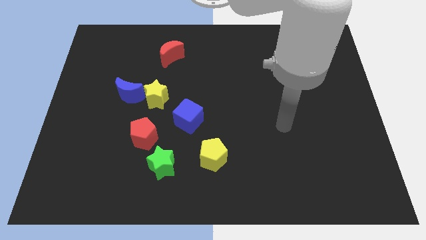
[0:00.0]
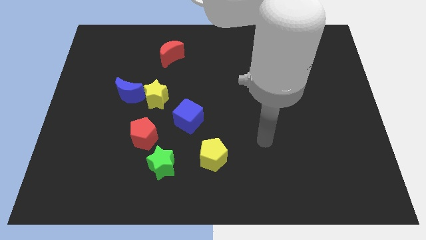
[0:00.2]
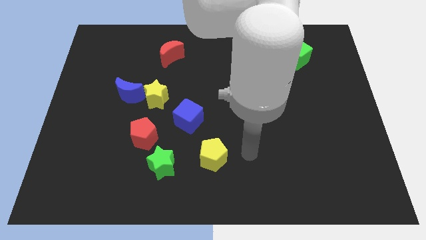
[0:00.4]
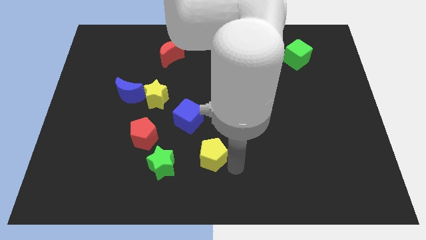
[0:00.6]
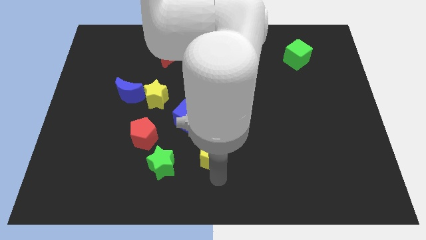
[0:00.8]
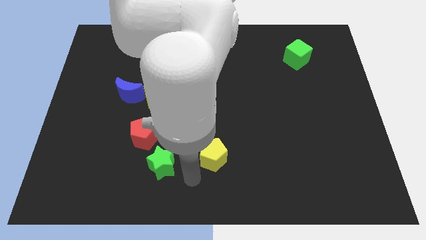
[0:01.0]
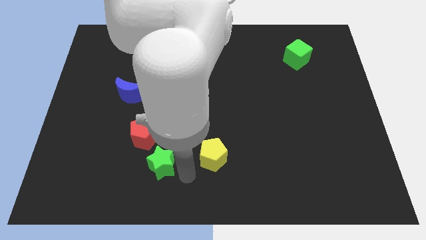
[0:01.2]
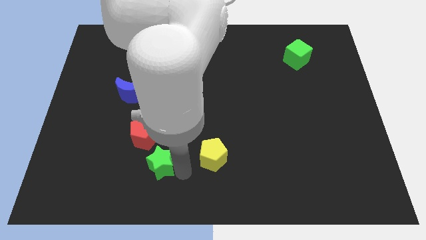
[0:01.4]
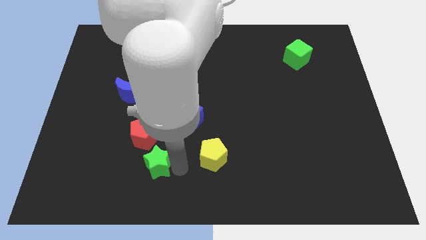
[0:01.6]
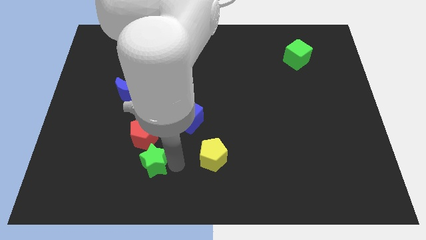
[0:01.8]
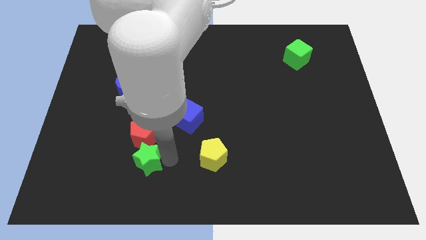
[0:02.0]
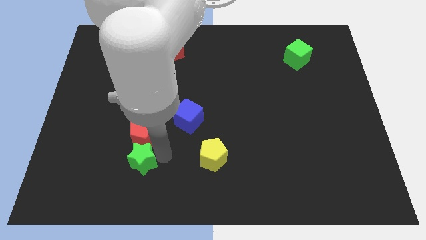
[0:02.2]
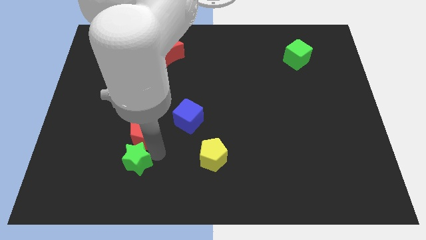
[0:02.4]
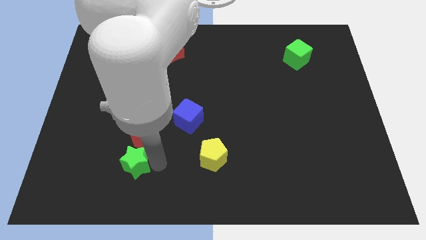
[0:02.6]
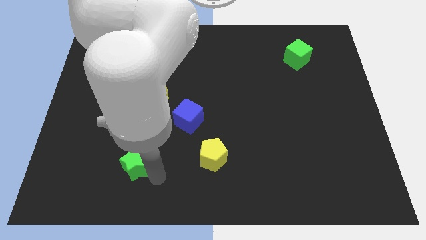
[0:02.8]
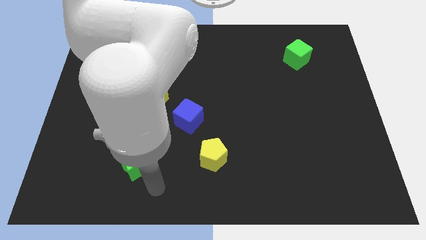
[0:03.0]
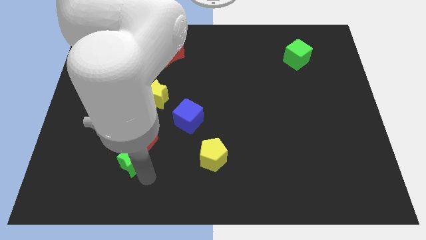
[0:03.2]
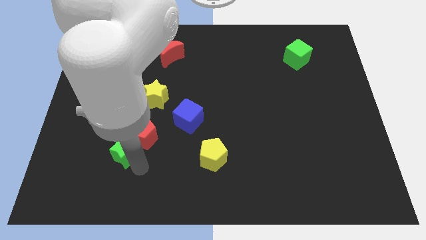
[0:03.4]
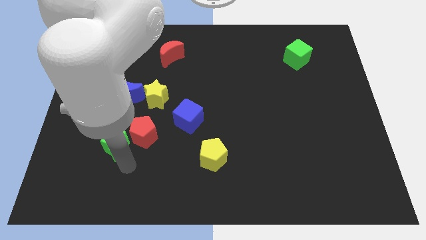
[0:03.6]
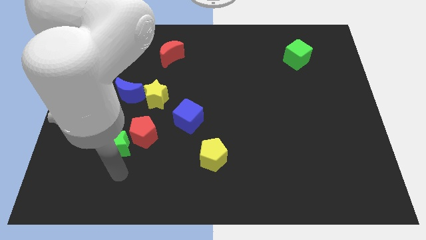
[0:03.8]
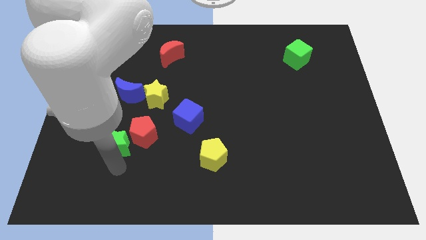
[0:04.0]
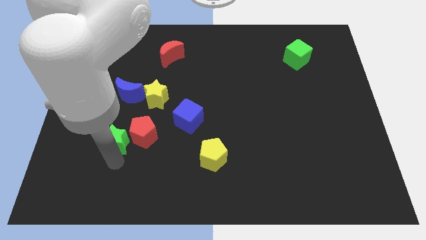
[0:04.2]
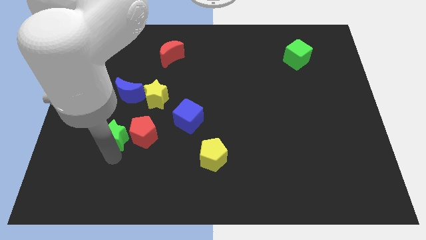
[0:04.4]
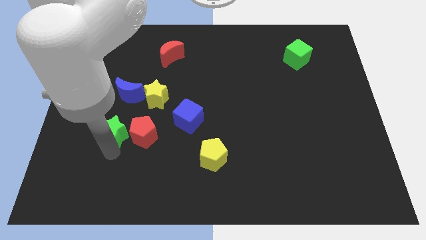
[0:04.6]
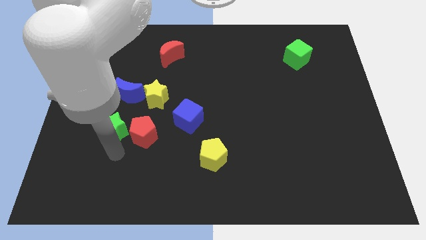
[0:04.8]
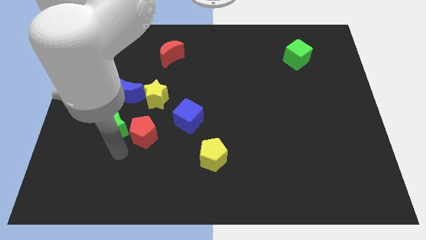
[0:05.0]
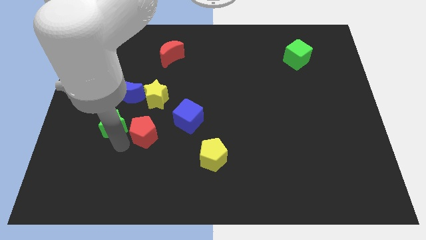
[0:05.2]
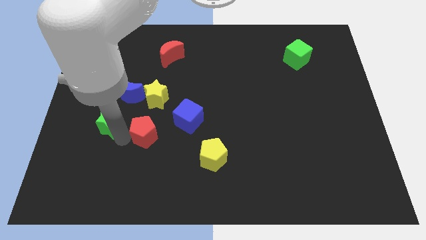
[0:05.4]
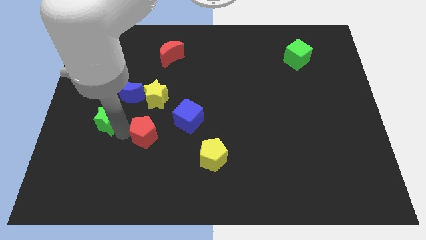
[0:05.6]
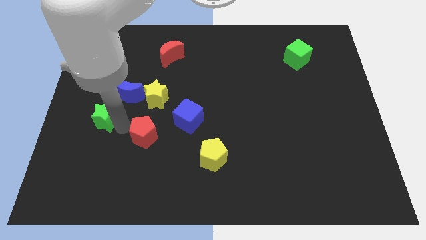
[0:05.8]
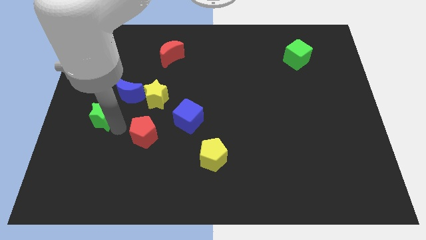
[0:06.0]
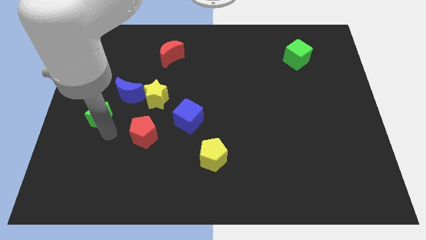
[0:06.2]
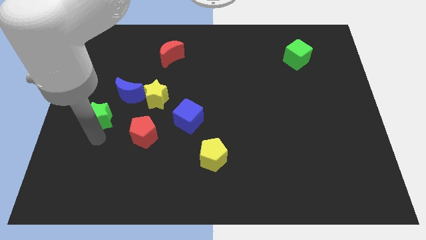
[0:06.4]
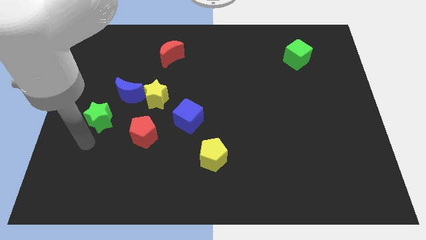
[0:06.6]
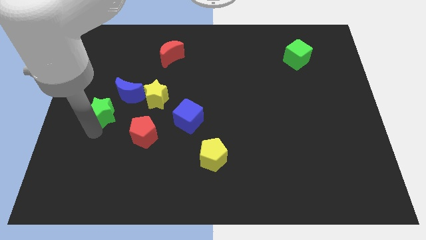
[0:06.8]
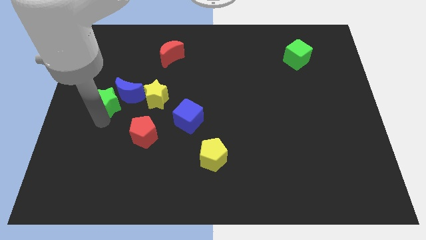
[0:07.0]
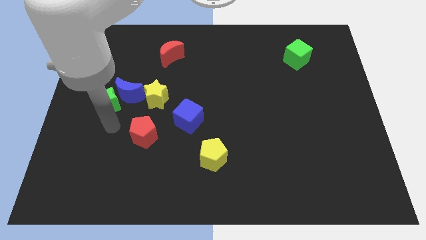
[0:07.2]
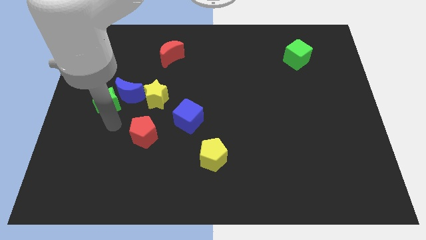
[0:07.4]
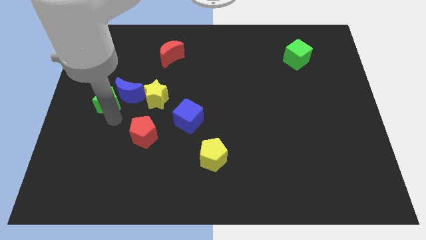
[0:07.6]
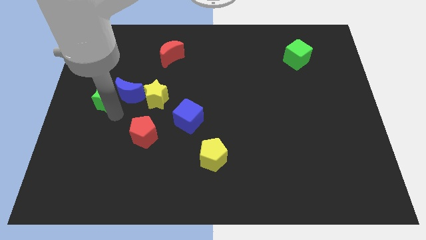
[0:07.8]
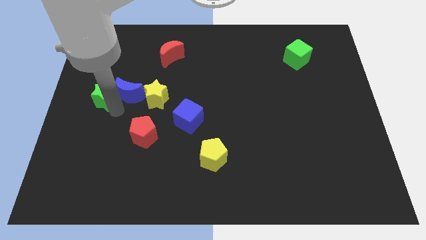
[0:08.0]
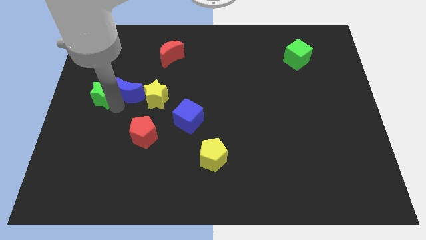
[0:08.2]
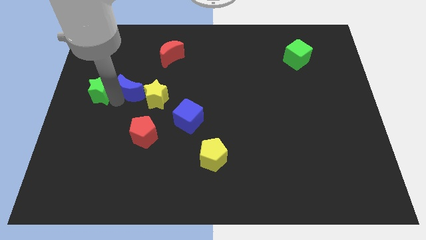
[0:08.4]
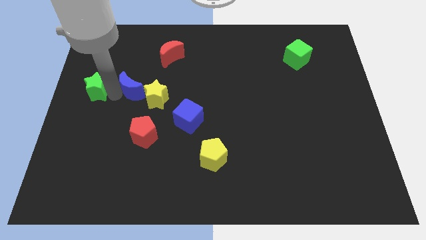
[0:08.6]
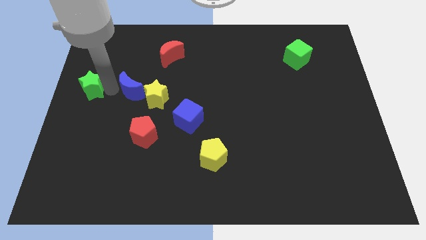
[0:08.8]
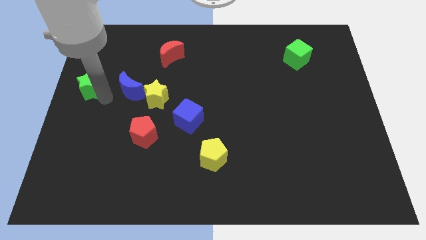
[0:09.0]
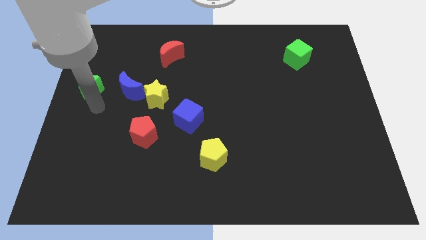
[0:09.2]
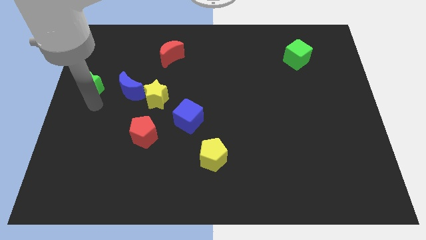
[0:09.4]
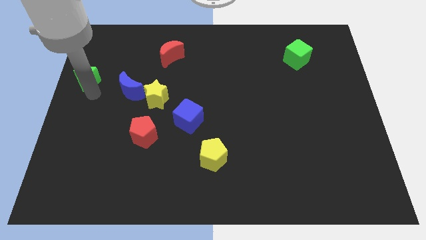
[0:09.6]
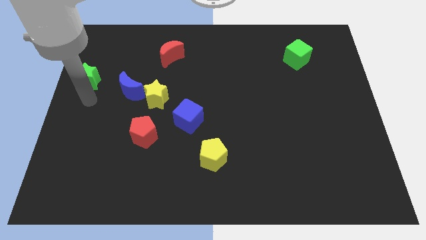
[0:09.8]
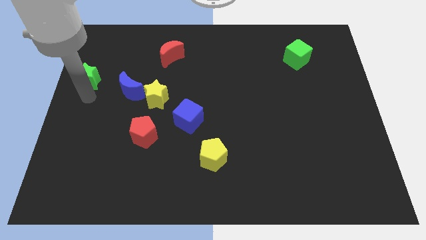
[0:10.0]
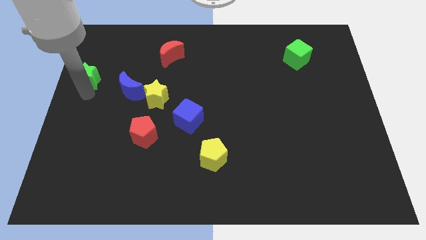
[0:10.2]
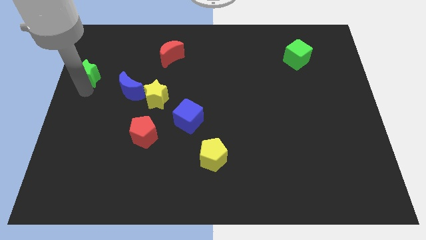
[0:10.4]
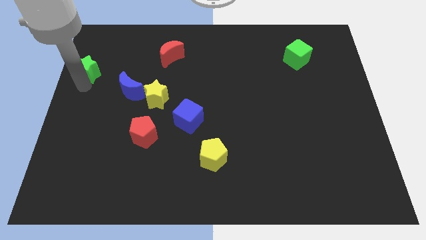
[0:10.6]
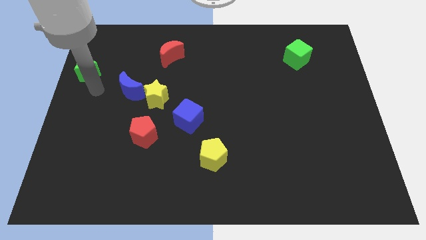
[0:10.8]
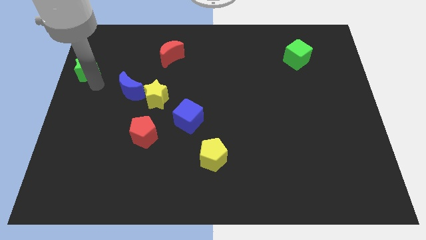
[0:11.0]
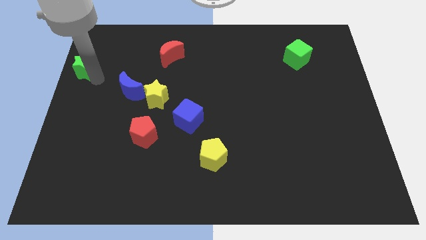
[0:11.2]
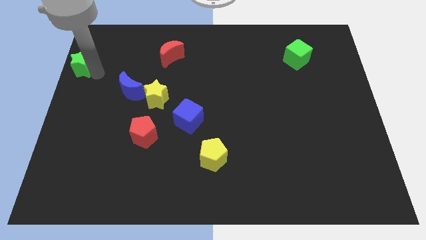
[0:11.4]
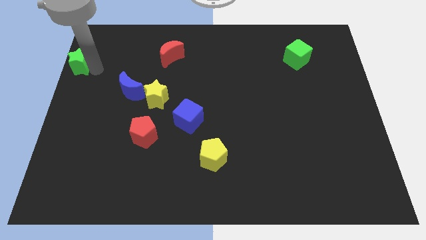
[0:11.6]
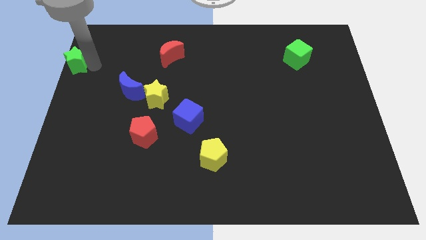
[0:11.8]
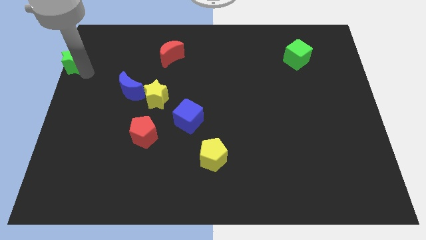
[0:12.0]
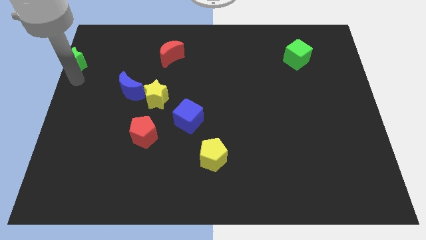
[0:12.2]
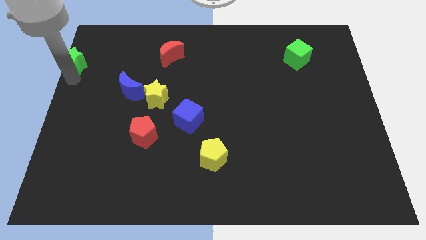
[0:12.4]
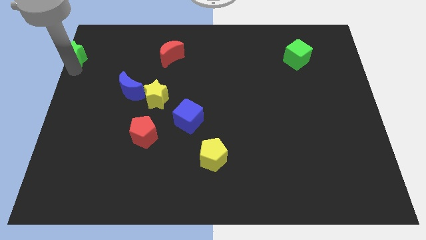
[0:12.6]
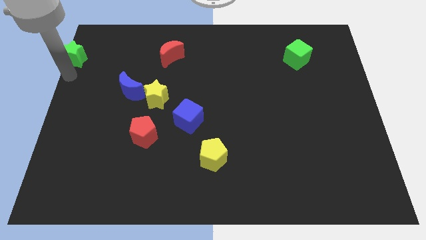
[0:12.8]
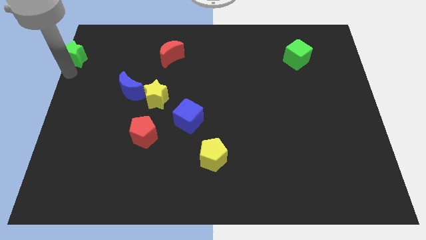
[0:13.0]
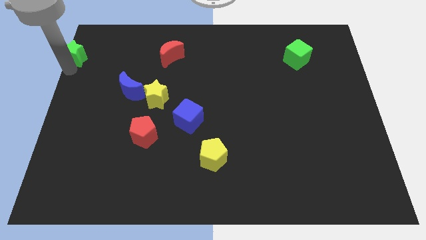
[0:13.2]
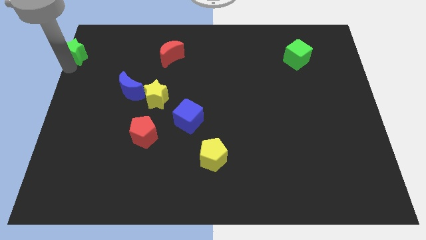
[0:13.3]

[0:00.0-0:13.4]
slide the green star to the top left of the board
